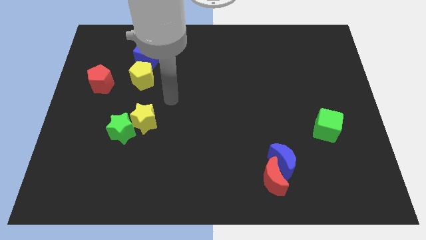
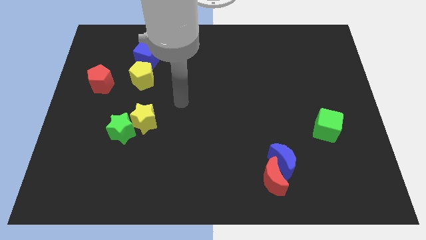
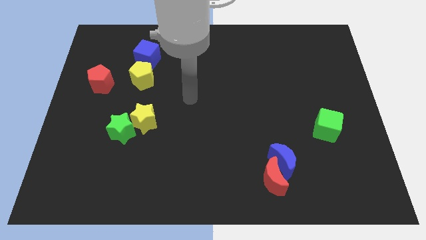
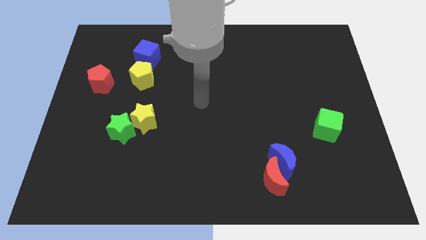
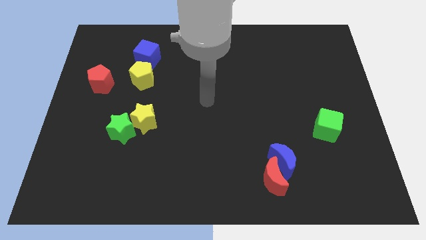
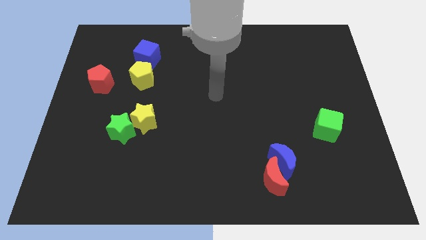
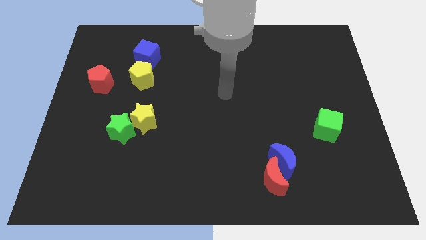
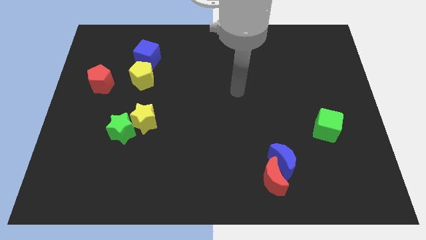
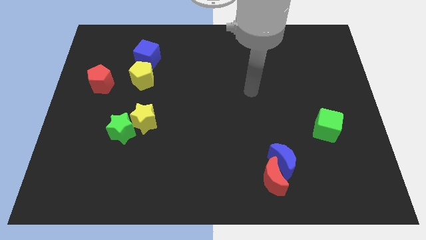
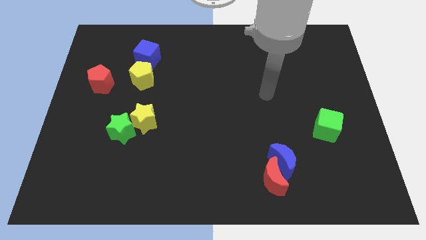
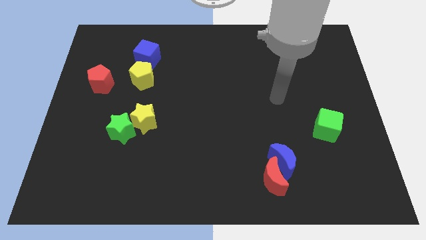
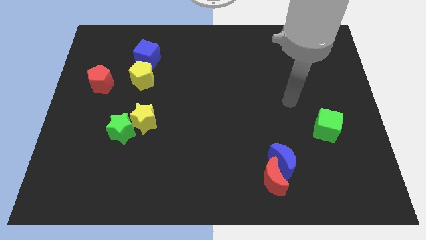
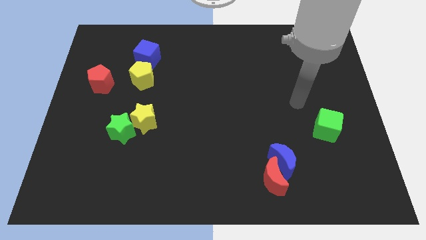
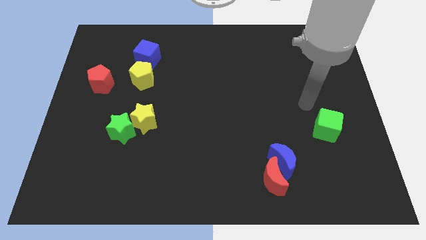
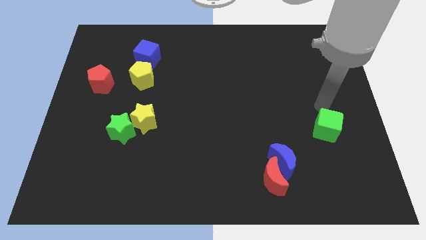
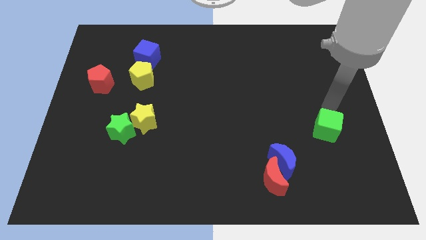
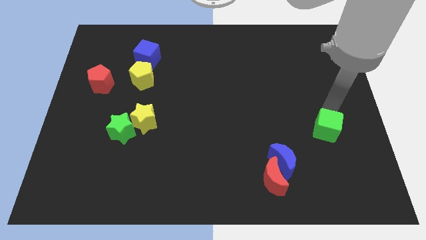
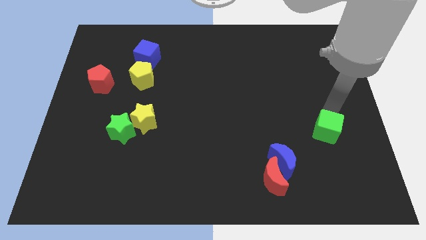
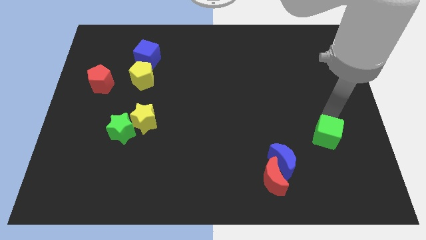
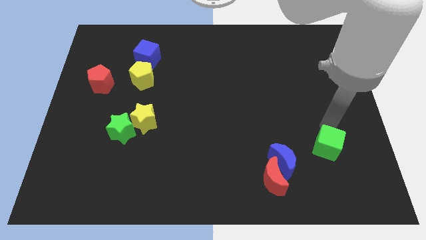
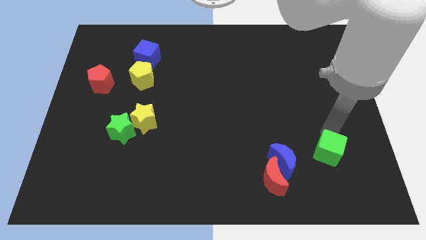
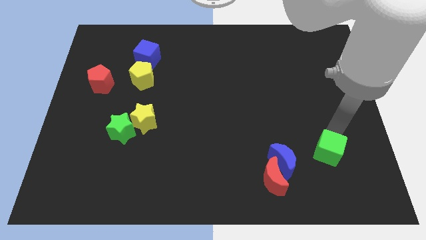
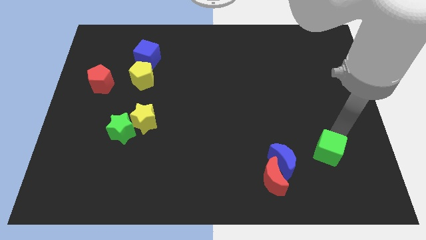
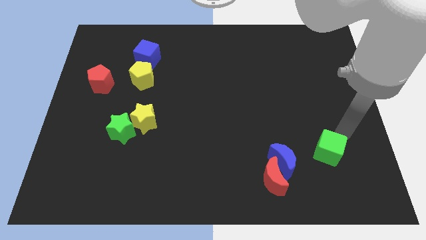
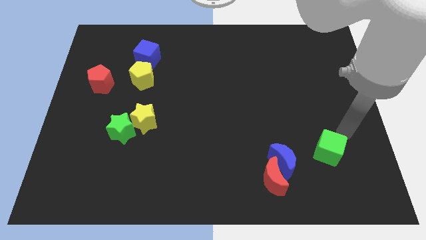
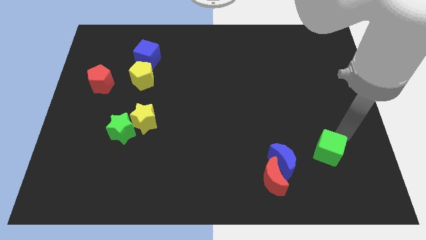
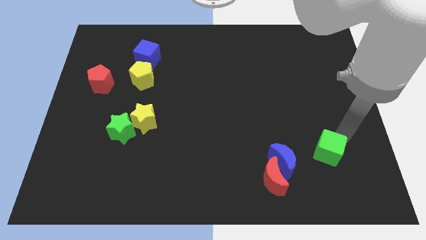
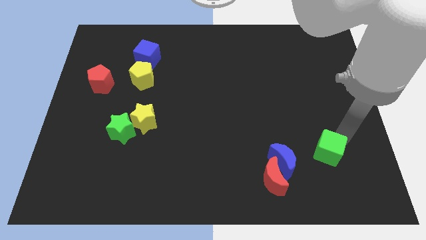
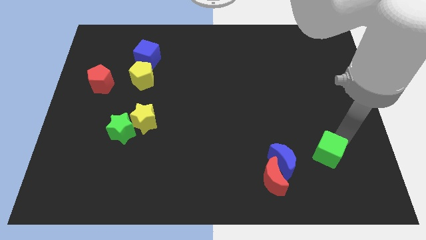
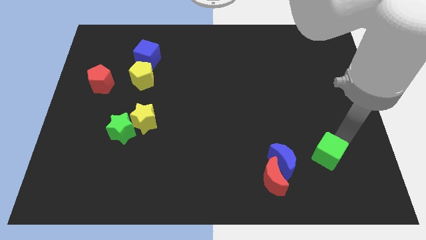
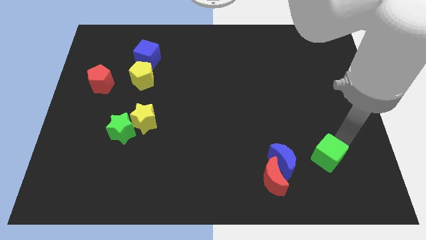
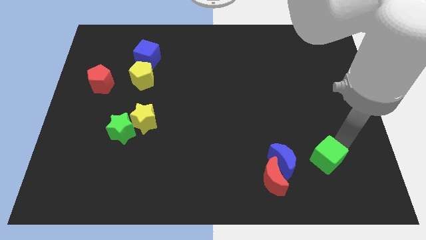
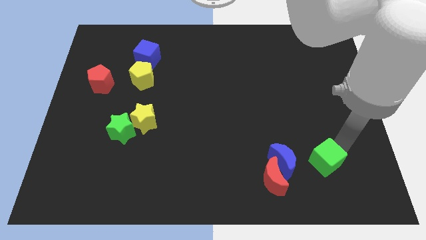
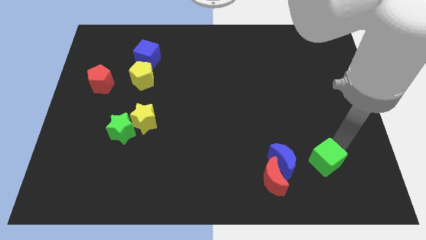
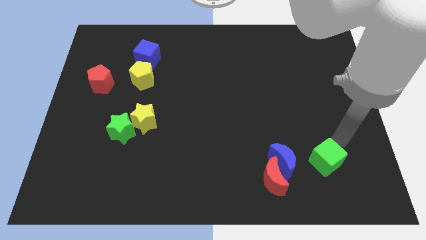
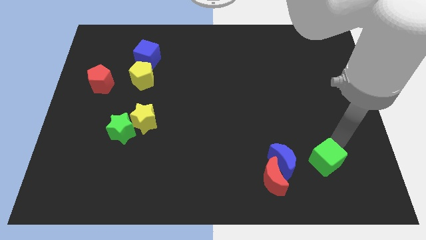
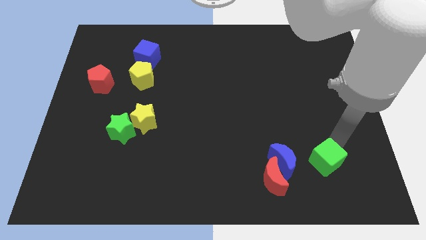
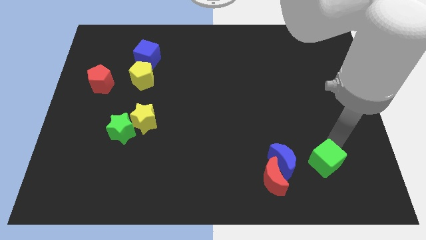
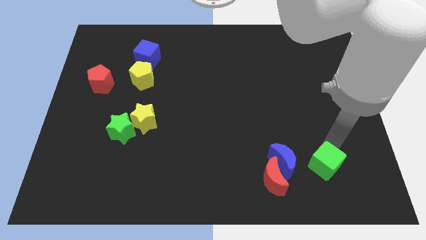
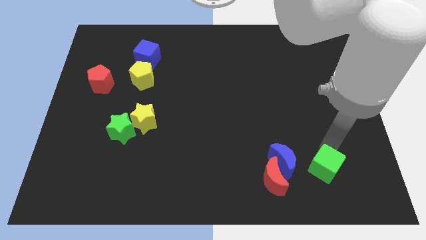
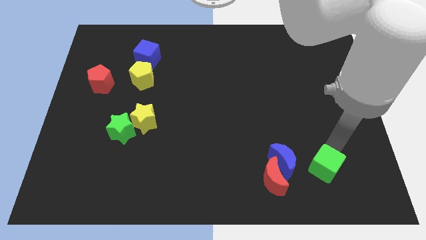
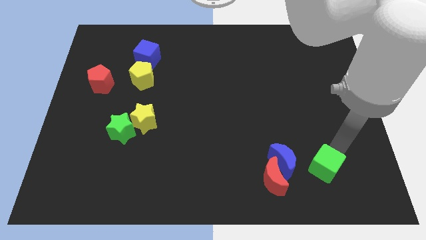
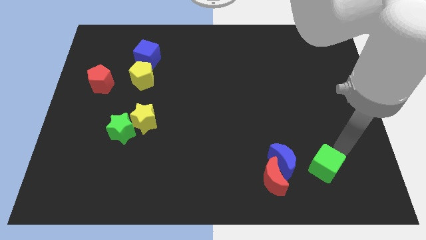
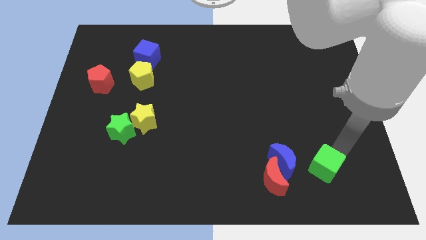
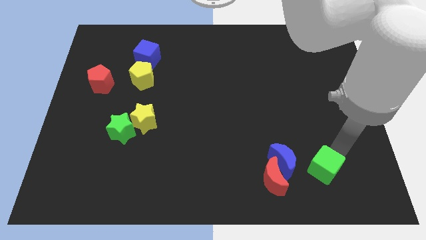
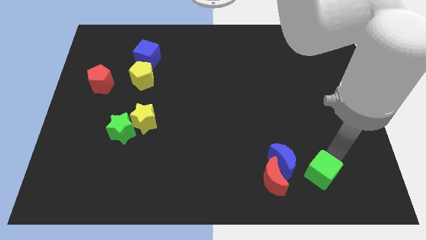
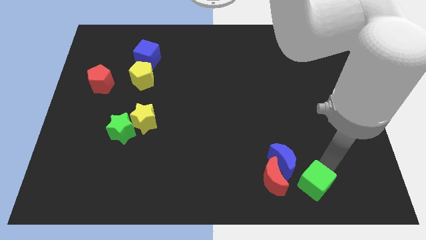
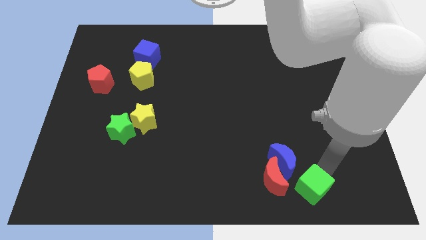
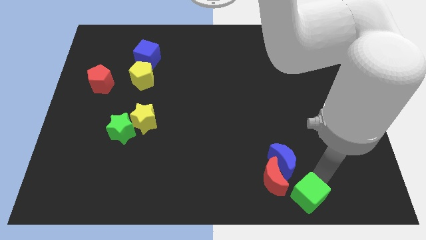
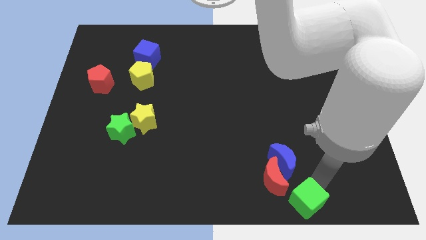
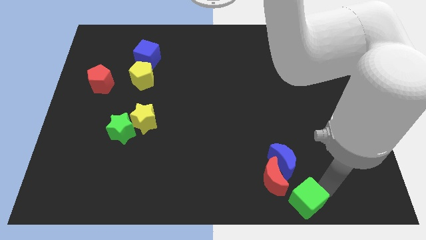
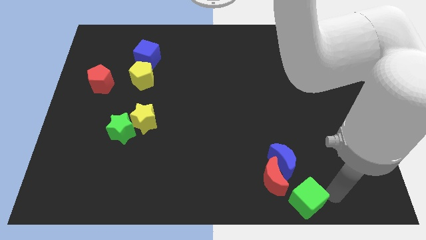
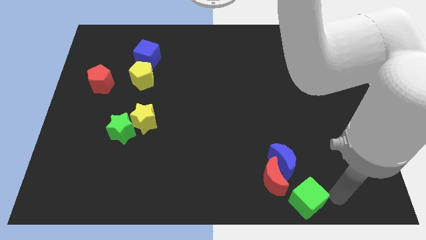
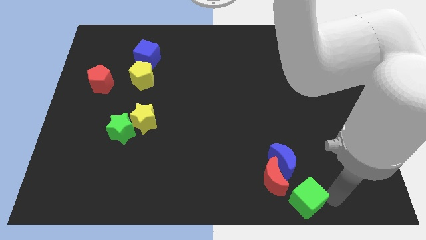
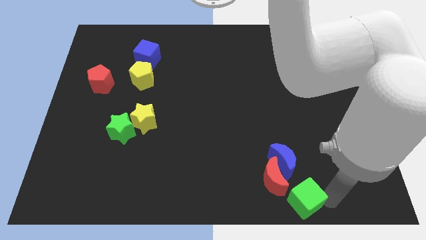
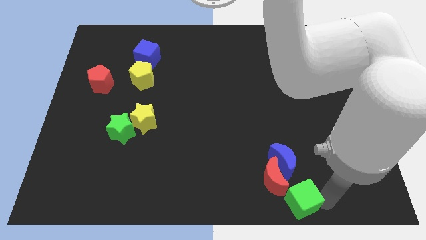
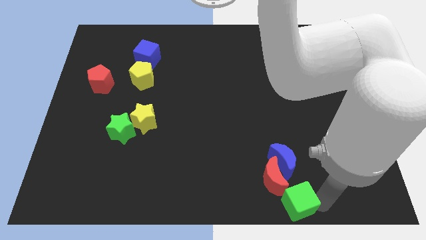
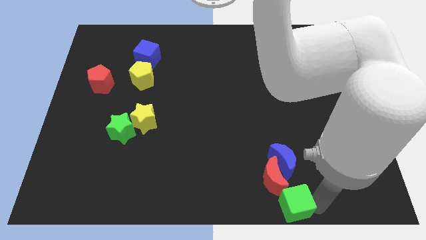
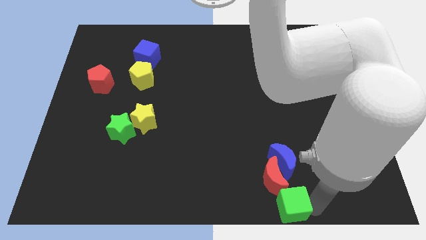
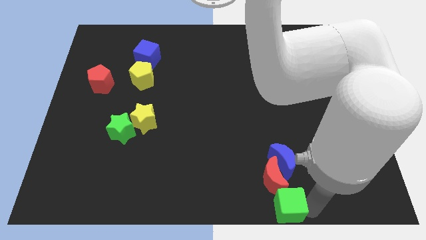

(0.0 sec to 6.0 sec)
push the green cube to the bottom side

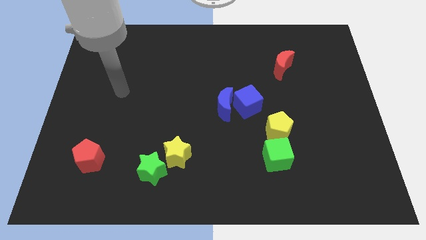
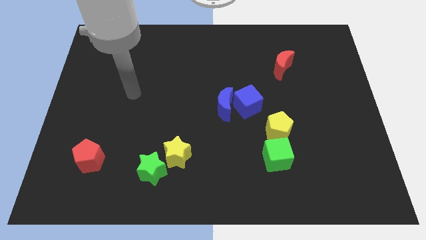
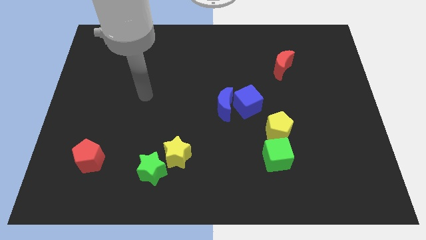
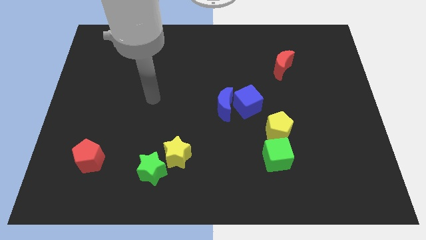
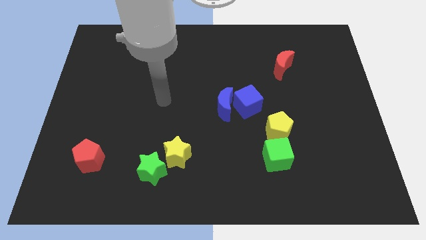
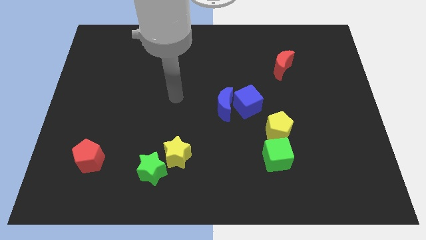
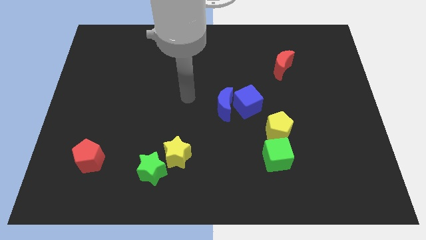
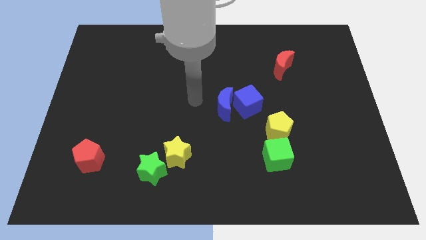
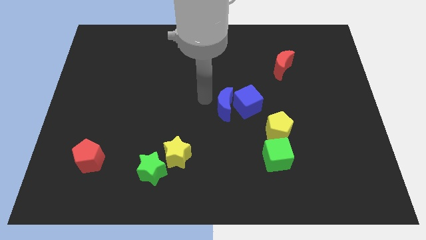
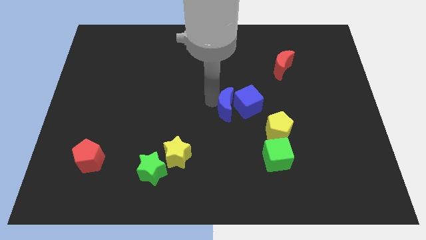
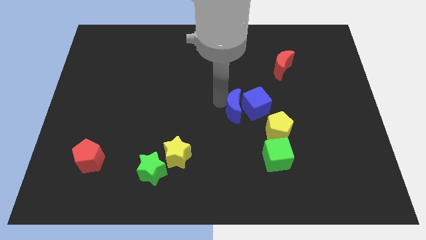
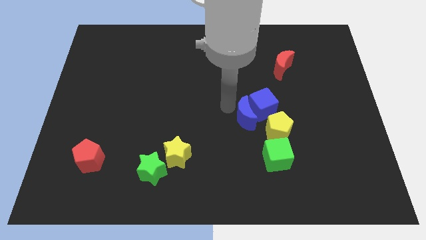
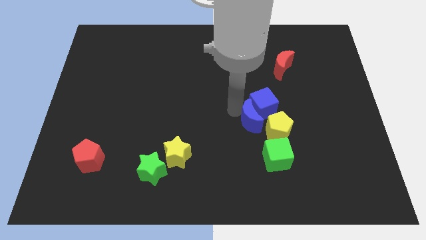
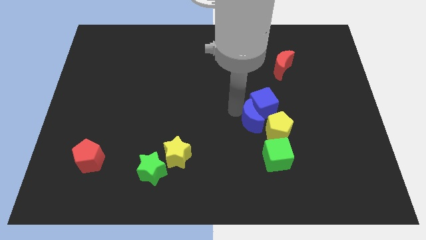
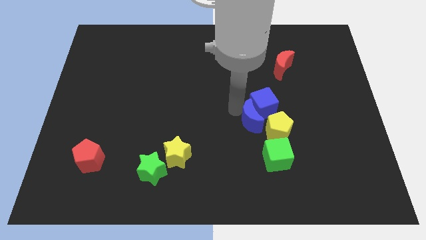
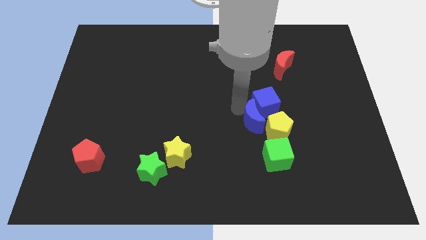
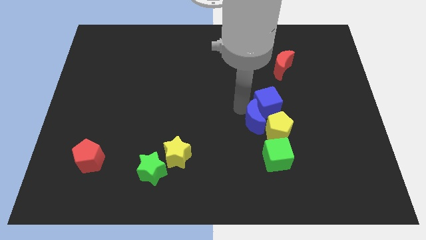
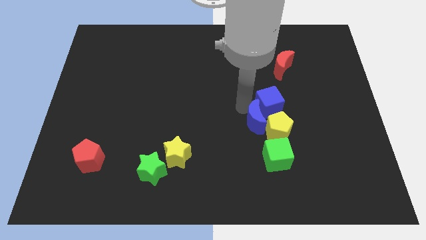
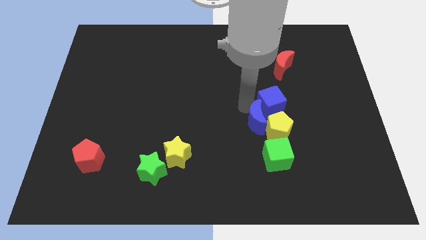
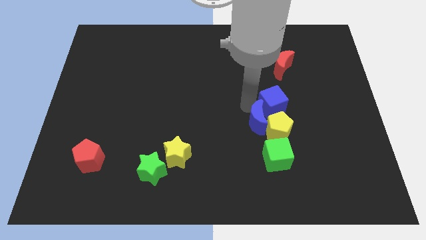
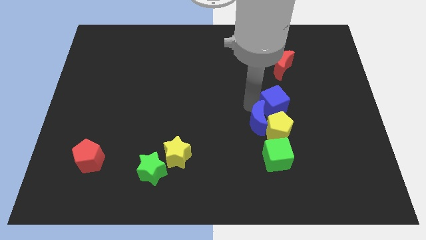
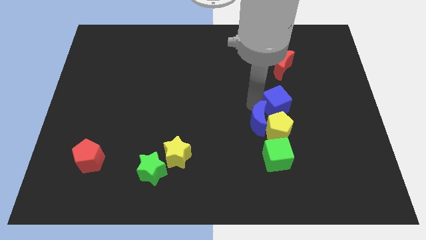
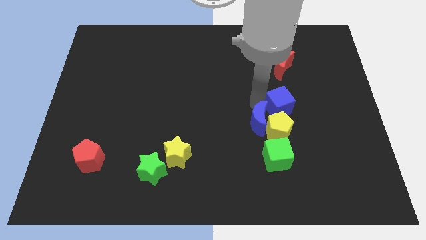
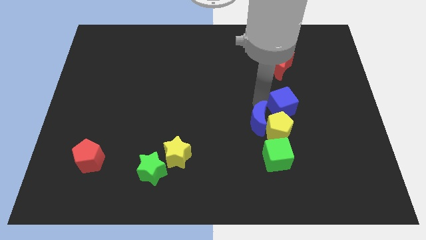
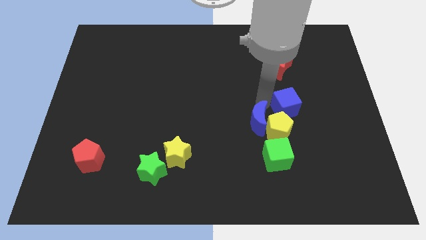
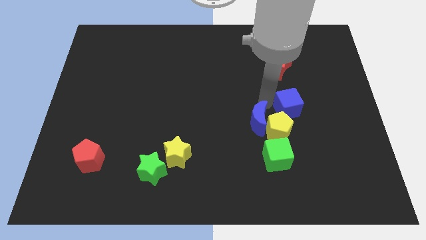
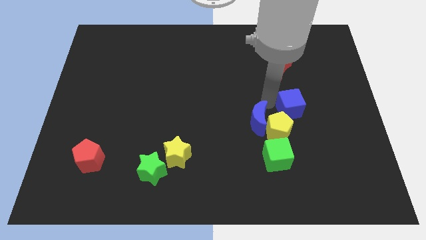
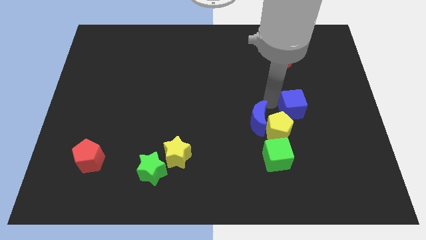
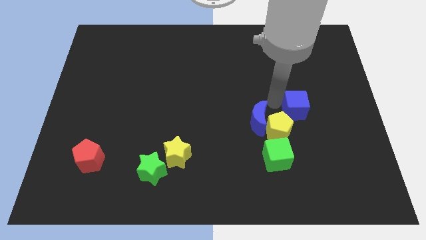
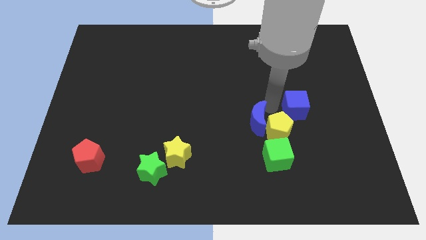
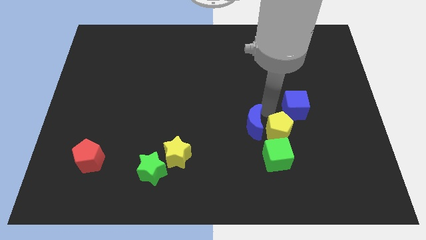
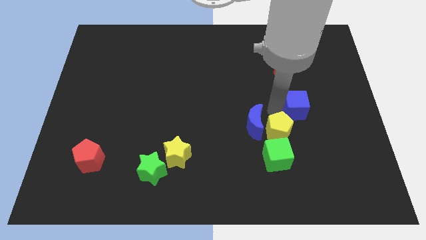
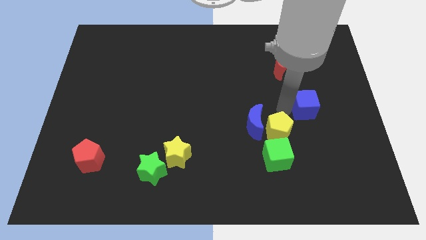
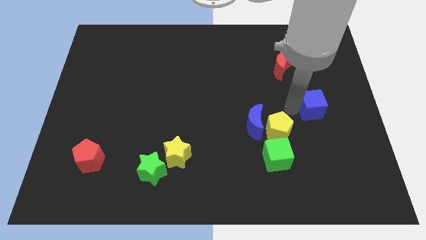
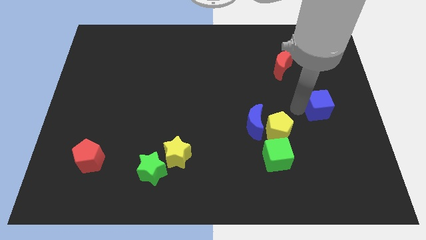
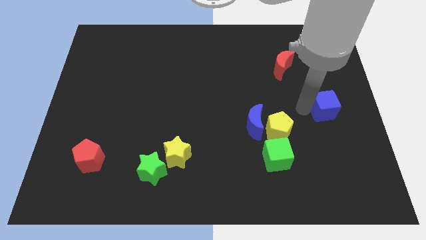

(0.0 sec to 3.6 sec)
move the blue cube to the right side of the board
